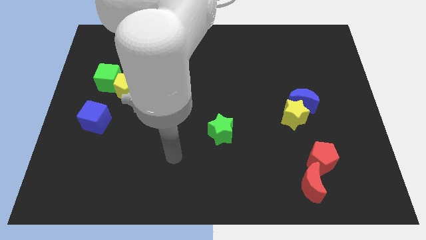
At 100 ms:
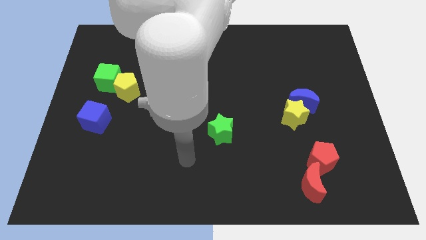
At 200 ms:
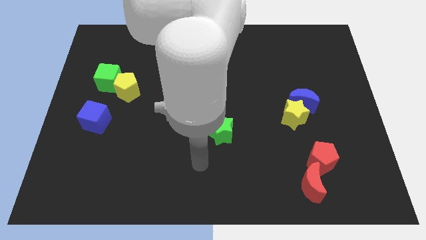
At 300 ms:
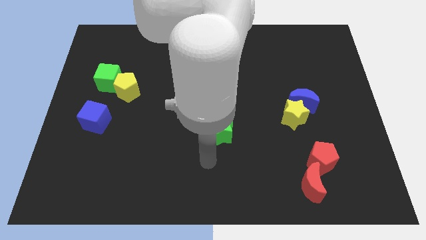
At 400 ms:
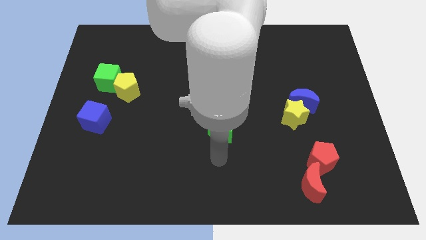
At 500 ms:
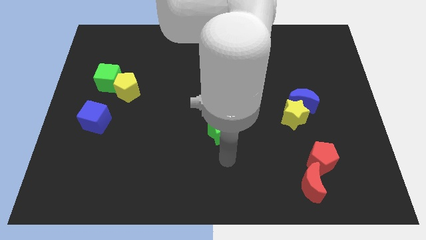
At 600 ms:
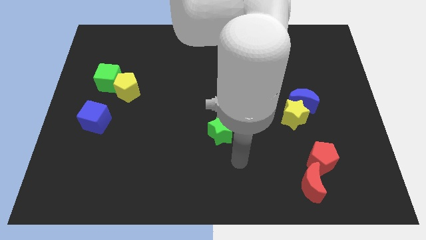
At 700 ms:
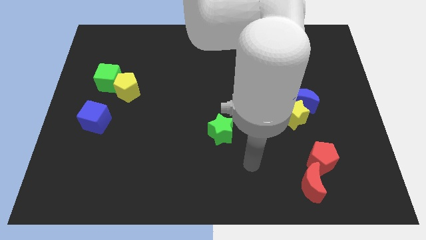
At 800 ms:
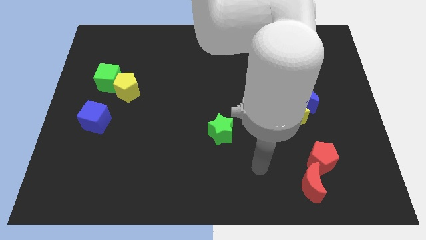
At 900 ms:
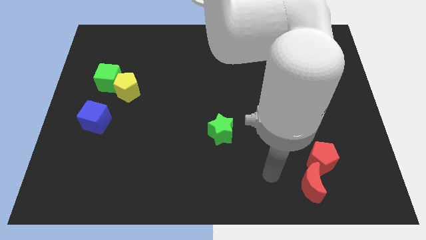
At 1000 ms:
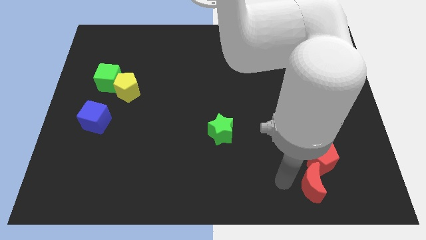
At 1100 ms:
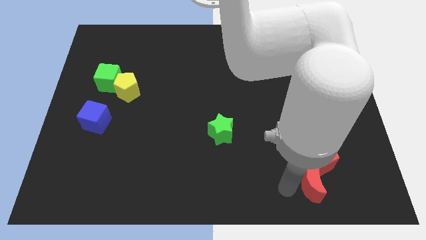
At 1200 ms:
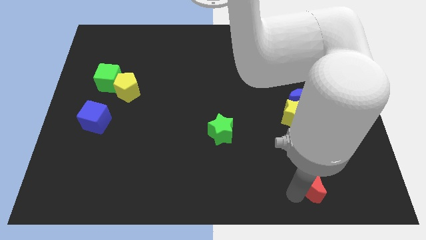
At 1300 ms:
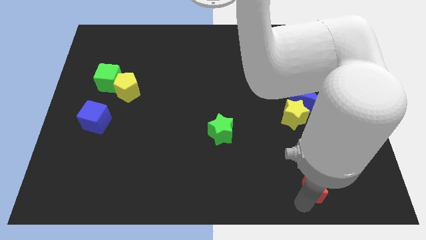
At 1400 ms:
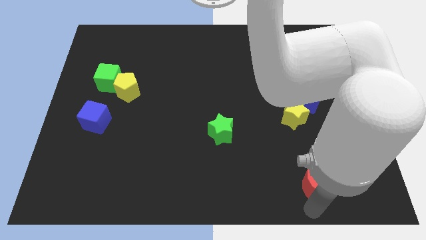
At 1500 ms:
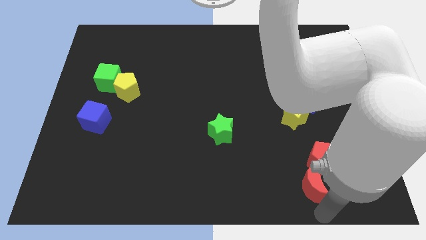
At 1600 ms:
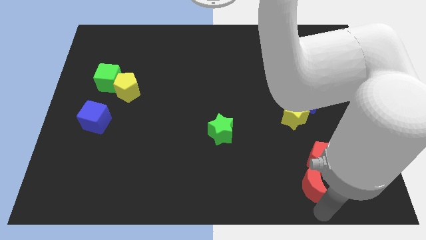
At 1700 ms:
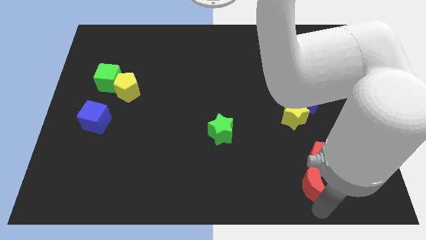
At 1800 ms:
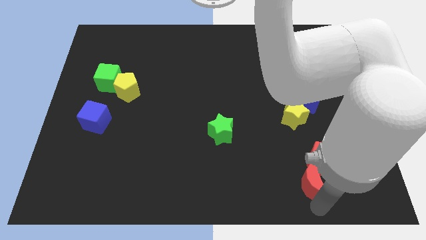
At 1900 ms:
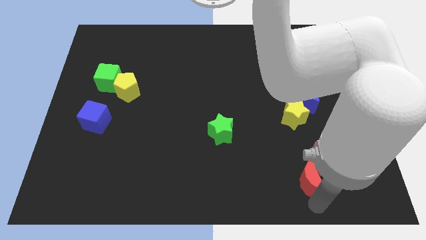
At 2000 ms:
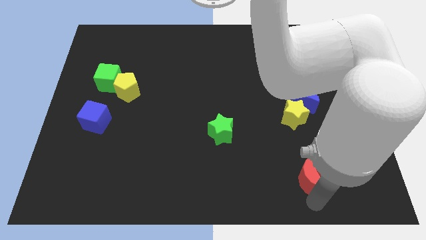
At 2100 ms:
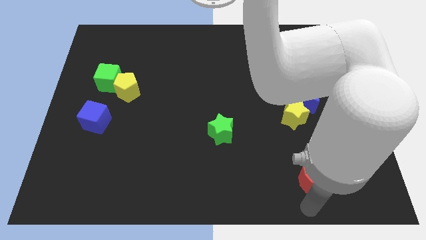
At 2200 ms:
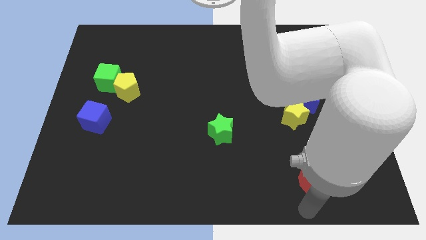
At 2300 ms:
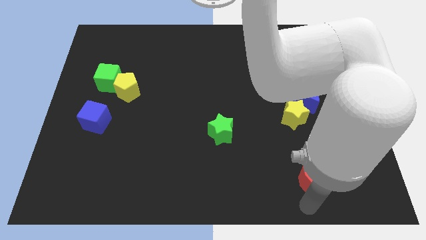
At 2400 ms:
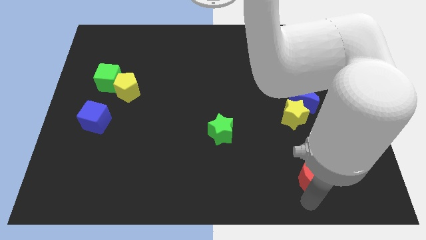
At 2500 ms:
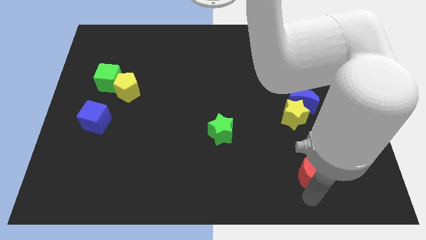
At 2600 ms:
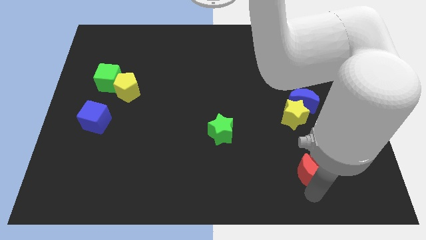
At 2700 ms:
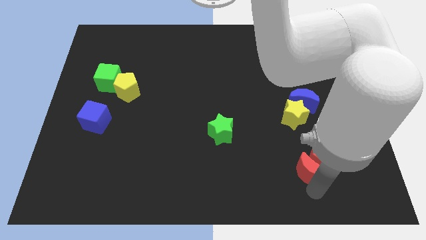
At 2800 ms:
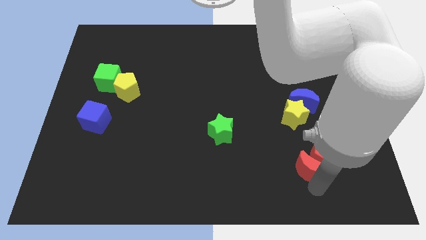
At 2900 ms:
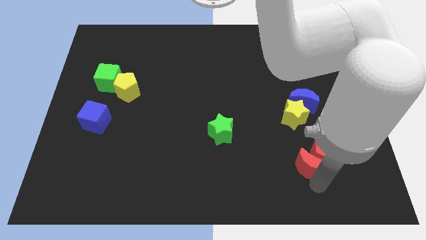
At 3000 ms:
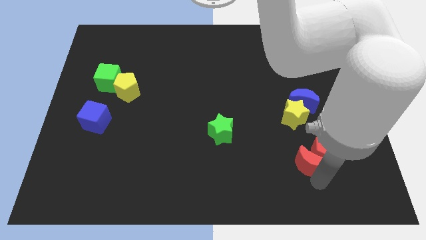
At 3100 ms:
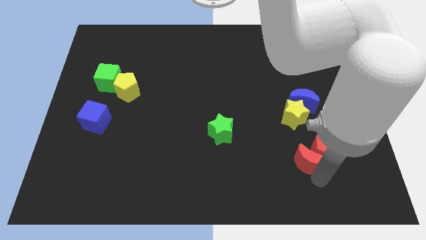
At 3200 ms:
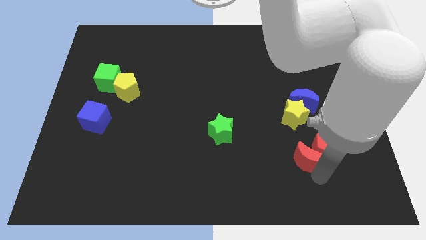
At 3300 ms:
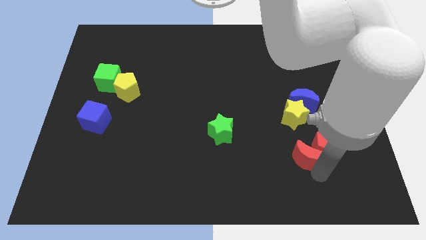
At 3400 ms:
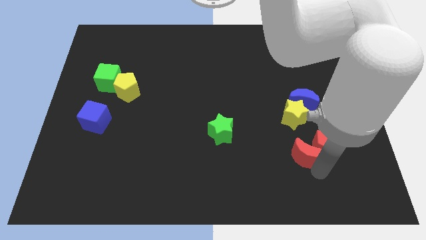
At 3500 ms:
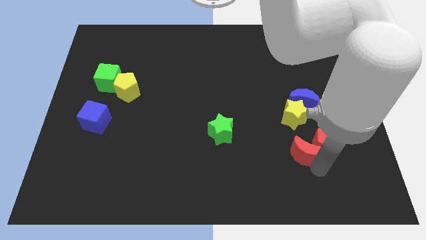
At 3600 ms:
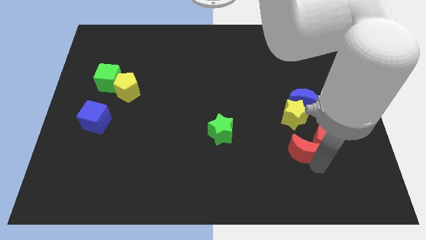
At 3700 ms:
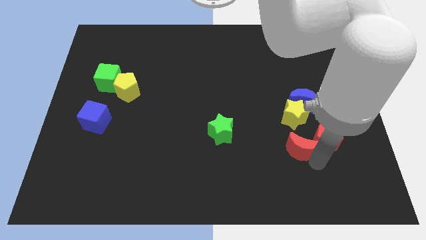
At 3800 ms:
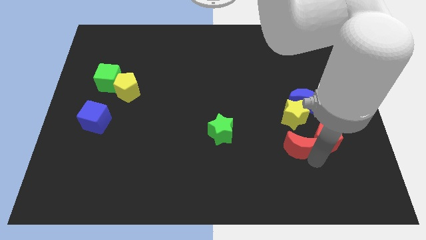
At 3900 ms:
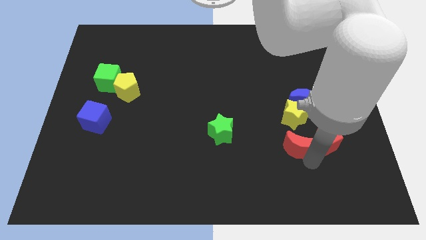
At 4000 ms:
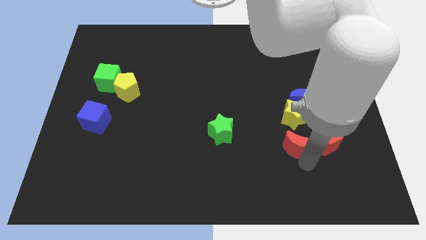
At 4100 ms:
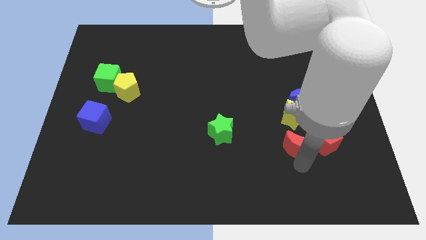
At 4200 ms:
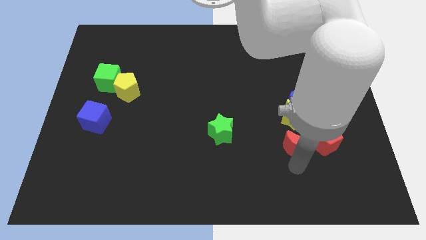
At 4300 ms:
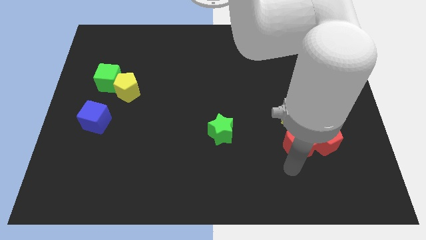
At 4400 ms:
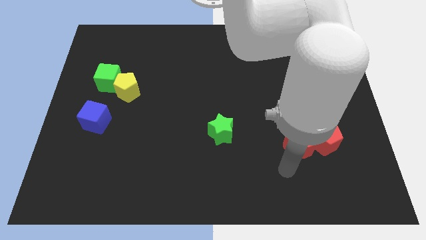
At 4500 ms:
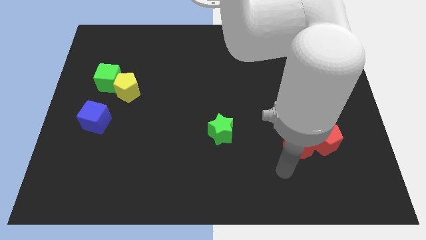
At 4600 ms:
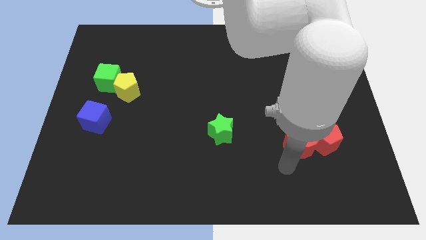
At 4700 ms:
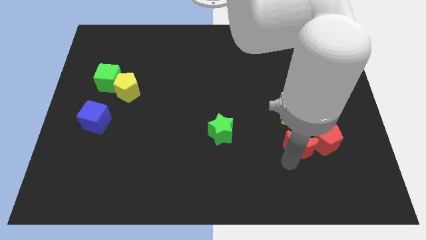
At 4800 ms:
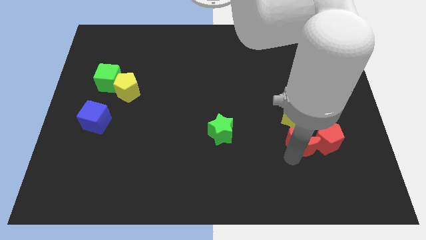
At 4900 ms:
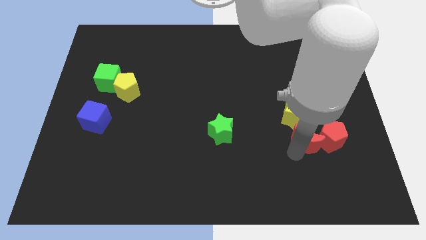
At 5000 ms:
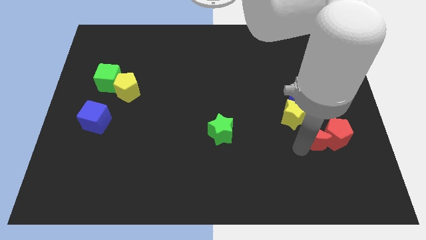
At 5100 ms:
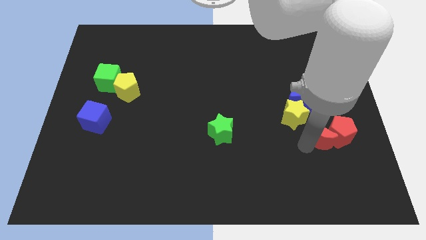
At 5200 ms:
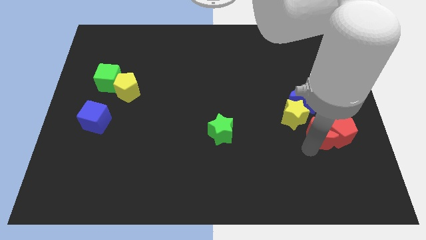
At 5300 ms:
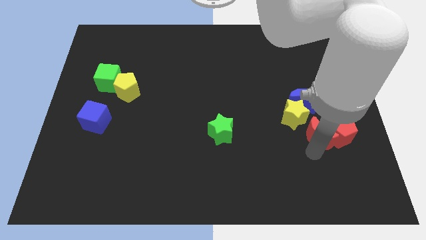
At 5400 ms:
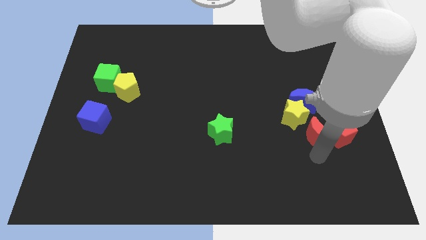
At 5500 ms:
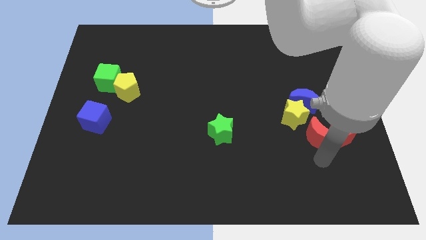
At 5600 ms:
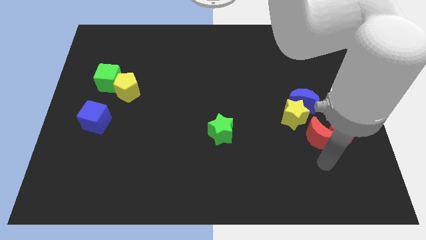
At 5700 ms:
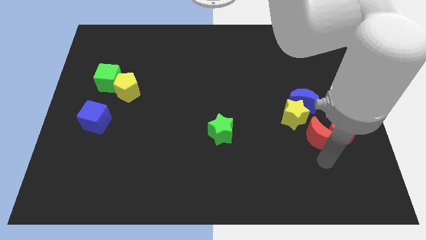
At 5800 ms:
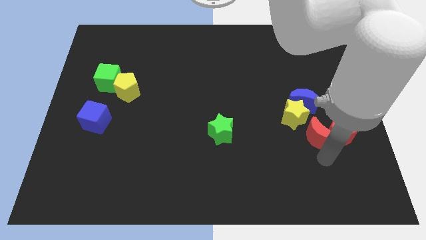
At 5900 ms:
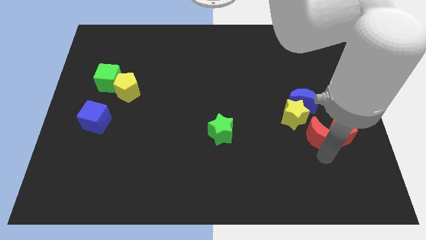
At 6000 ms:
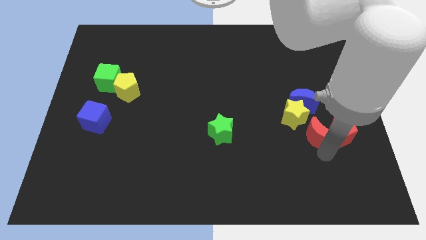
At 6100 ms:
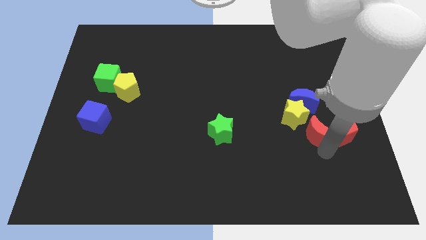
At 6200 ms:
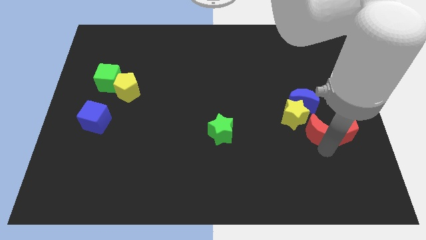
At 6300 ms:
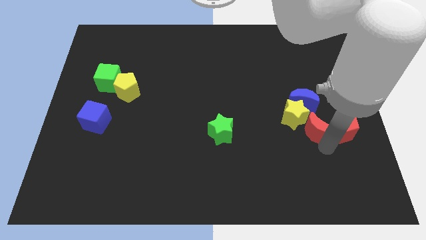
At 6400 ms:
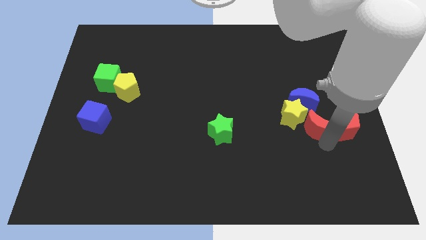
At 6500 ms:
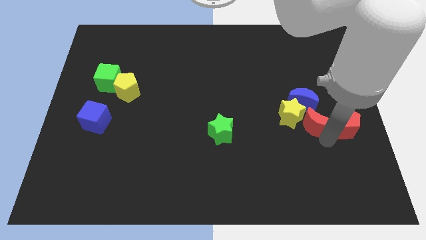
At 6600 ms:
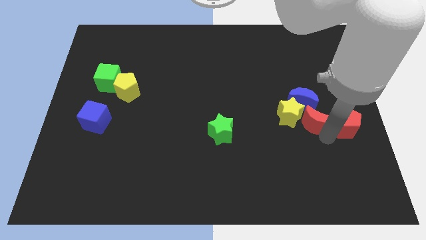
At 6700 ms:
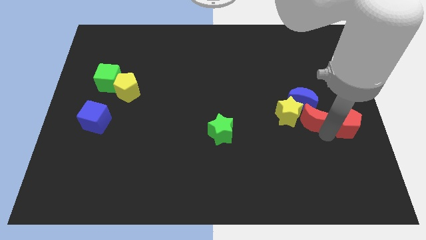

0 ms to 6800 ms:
push the red moon towards the blue moon
